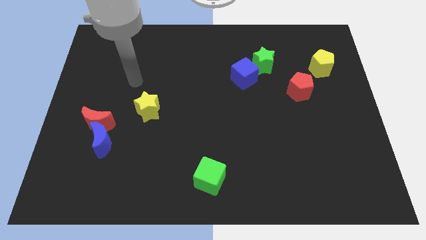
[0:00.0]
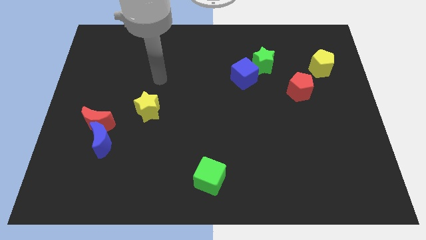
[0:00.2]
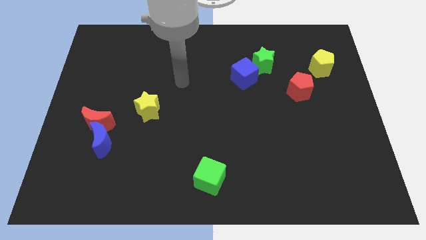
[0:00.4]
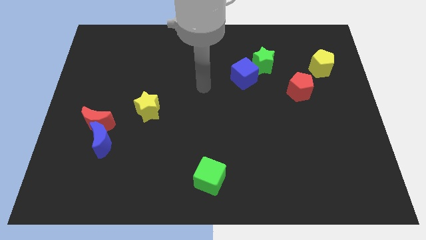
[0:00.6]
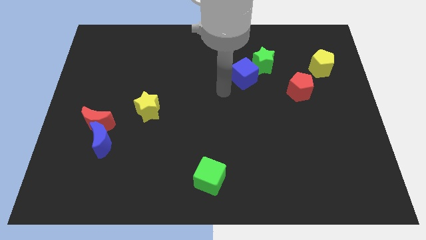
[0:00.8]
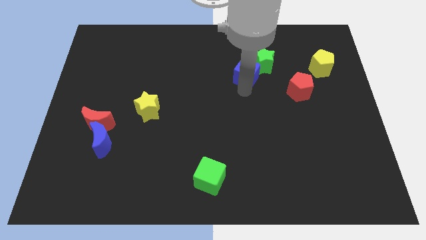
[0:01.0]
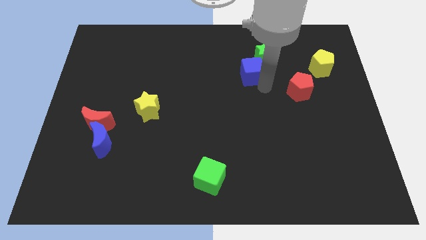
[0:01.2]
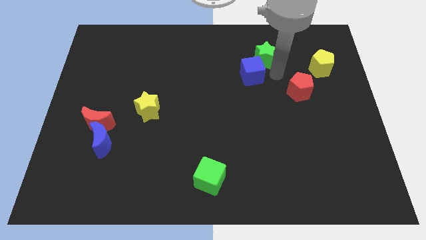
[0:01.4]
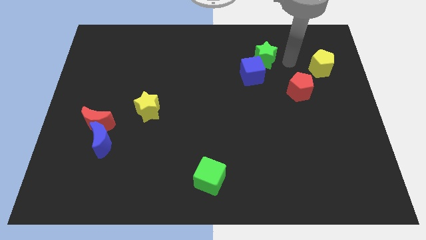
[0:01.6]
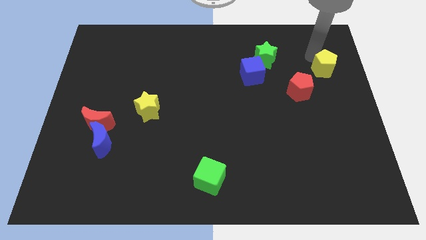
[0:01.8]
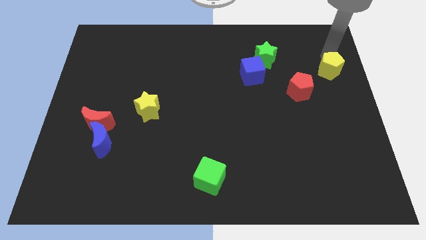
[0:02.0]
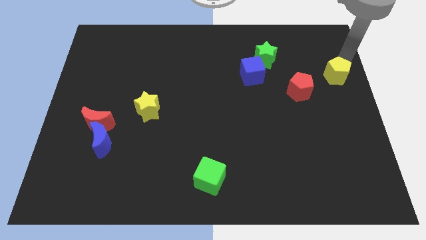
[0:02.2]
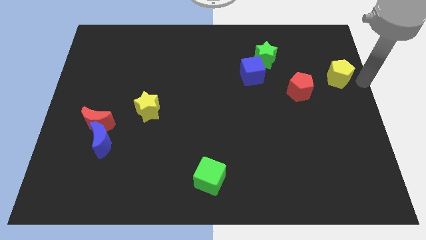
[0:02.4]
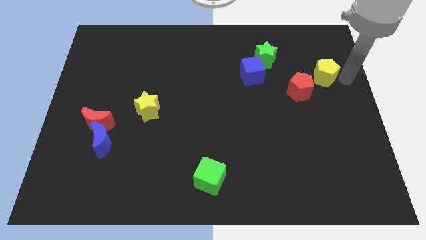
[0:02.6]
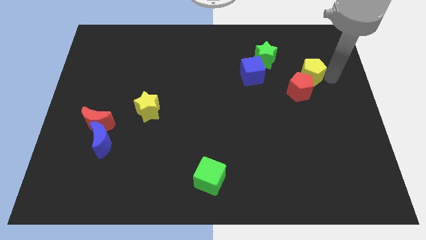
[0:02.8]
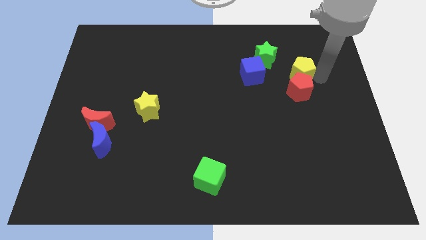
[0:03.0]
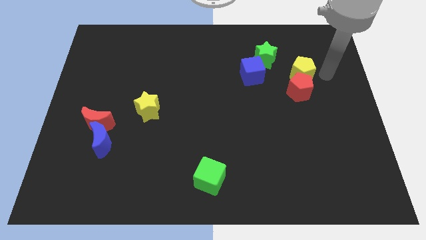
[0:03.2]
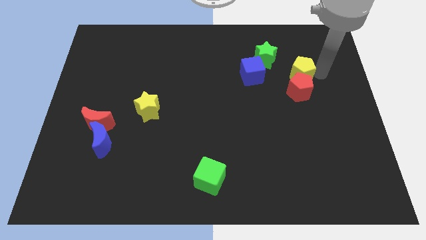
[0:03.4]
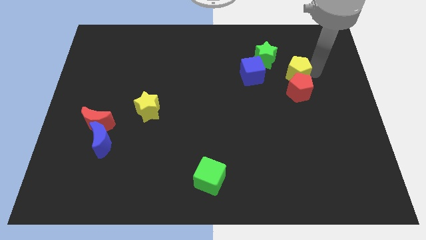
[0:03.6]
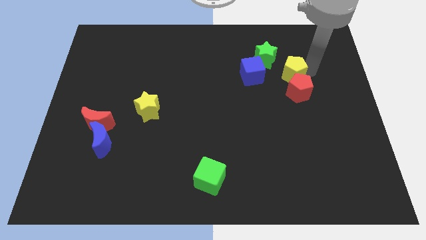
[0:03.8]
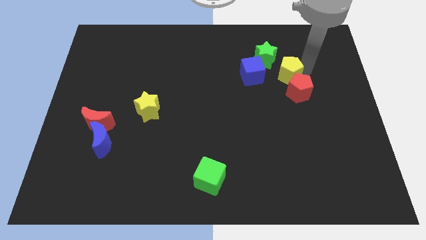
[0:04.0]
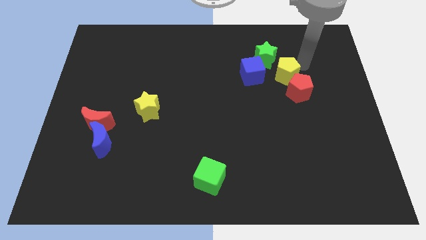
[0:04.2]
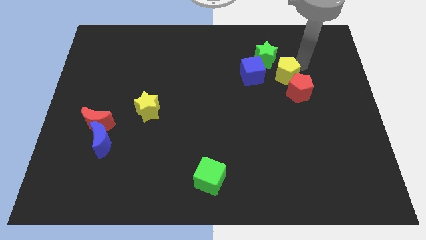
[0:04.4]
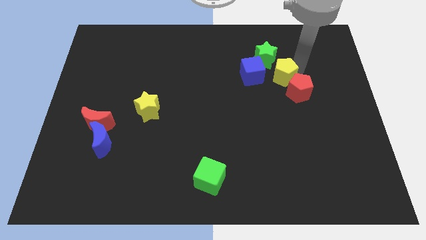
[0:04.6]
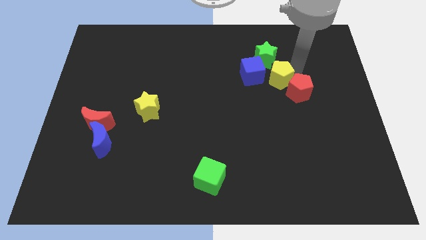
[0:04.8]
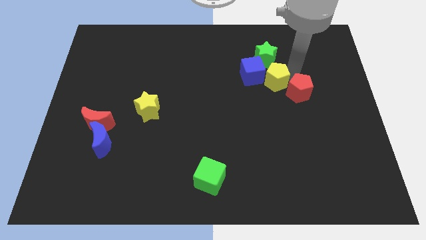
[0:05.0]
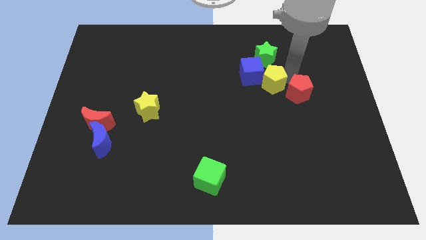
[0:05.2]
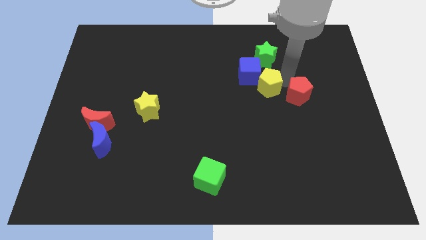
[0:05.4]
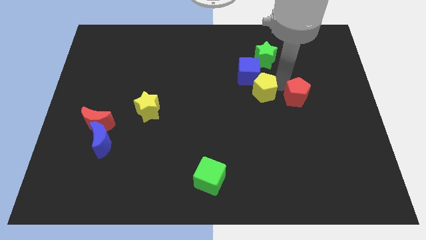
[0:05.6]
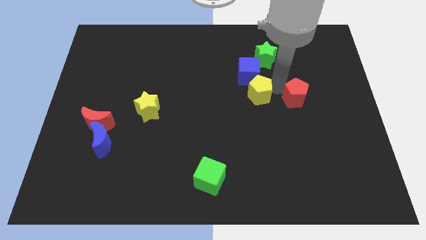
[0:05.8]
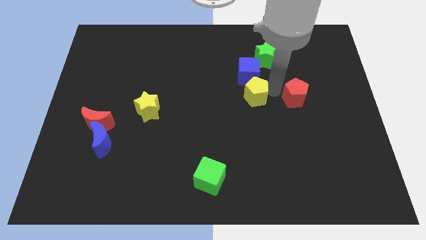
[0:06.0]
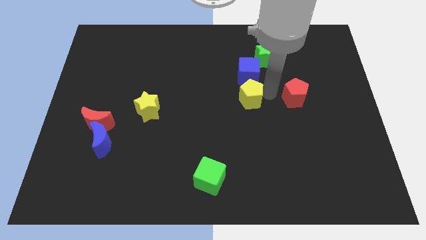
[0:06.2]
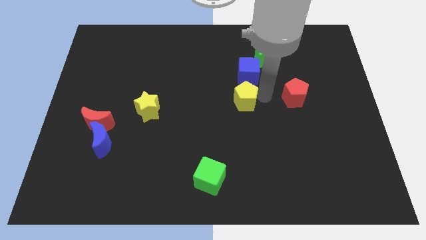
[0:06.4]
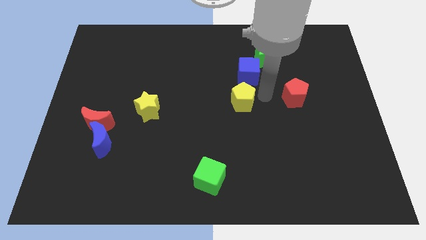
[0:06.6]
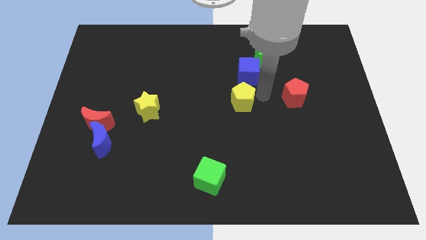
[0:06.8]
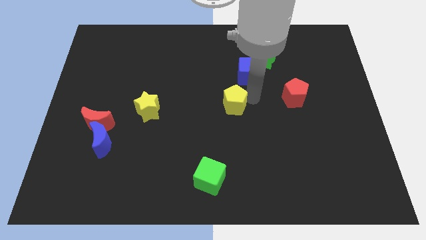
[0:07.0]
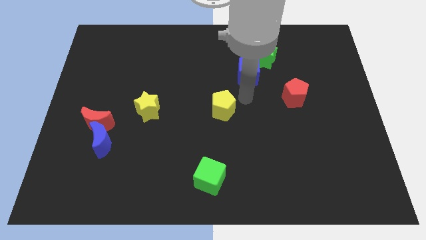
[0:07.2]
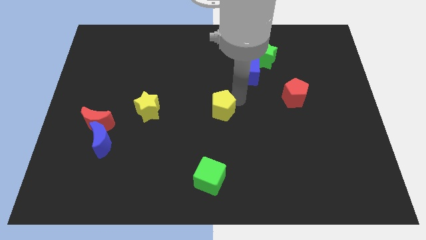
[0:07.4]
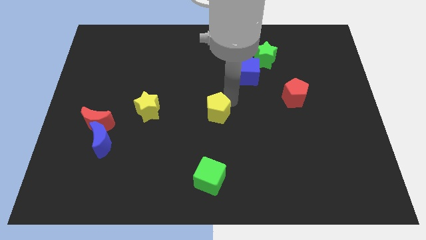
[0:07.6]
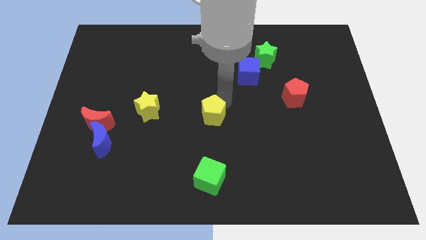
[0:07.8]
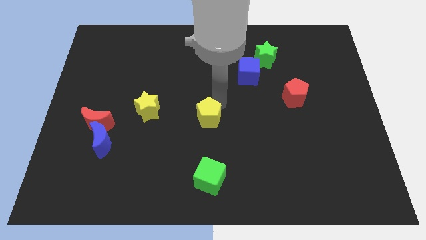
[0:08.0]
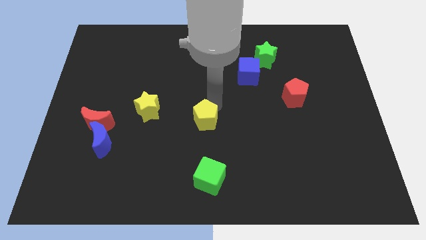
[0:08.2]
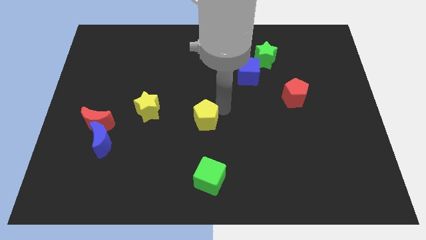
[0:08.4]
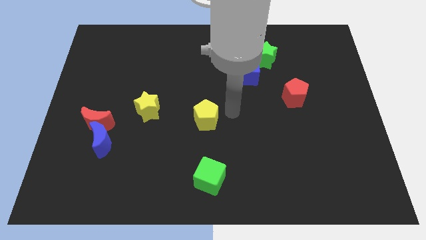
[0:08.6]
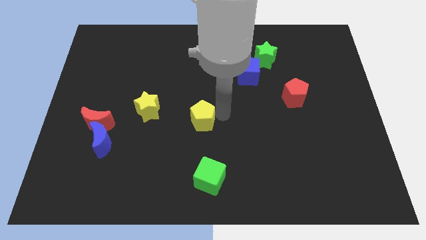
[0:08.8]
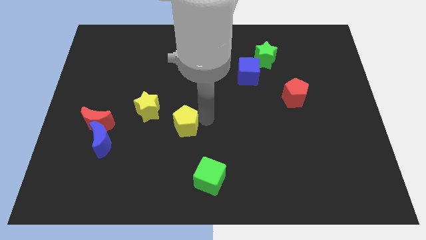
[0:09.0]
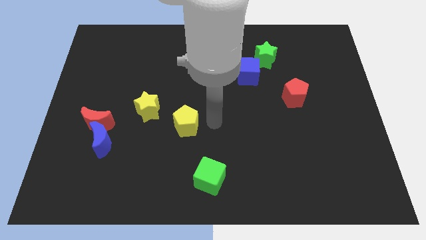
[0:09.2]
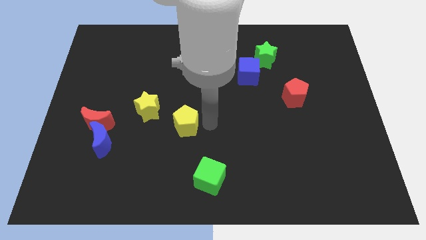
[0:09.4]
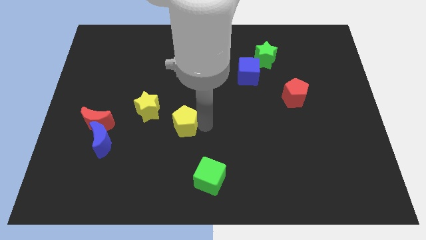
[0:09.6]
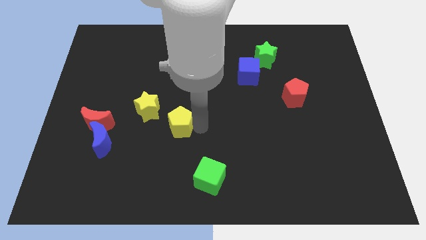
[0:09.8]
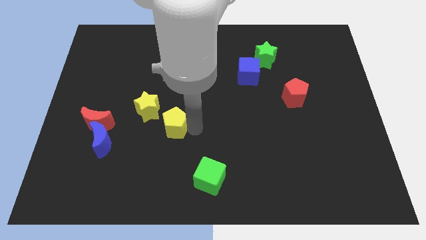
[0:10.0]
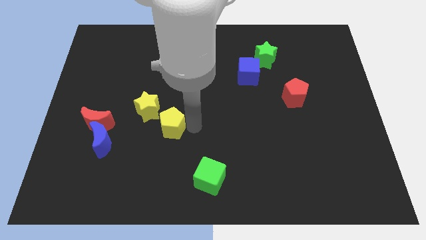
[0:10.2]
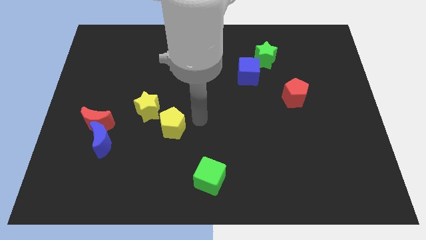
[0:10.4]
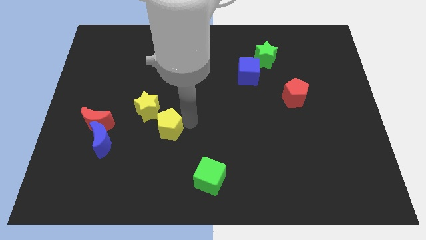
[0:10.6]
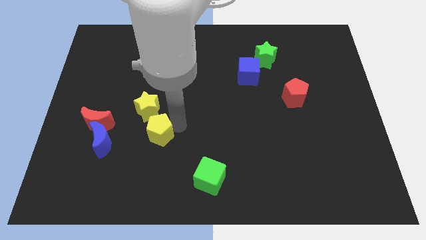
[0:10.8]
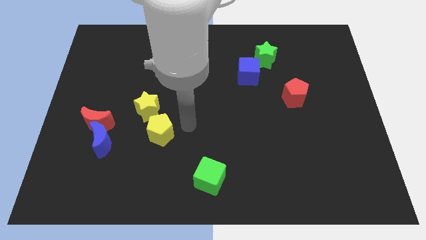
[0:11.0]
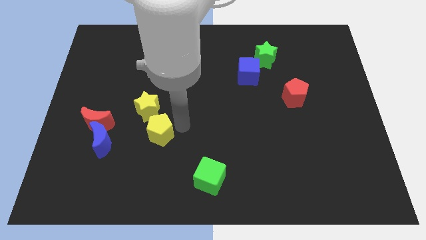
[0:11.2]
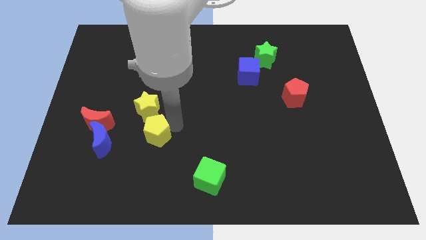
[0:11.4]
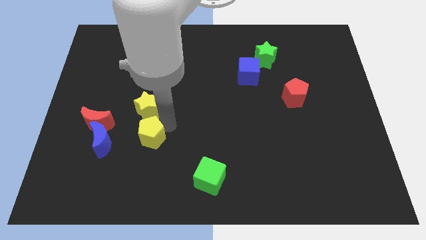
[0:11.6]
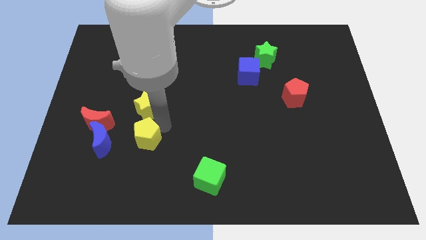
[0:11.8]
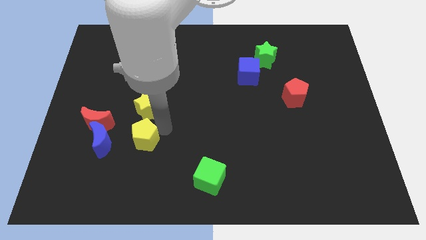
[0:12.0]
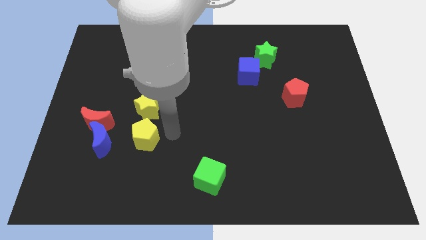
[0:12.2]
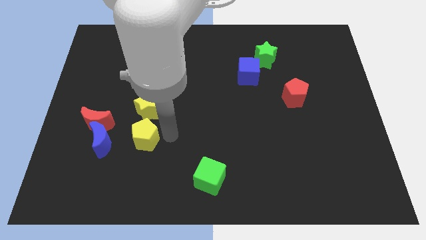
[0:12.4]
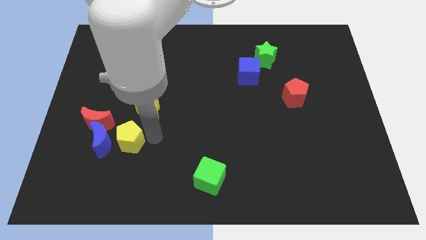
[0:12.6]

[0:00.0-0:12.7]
put the yellow pentagon close to the blue moon

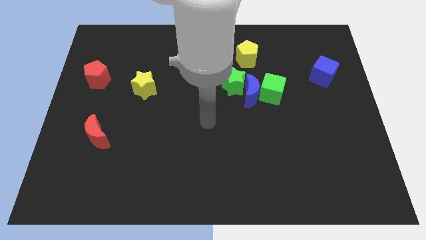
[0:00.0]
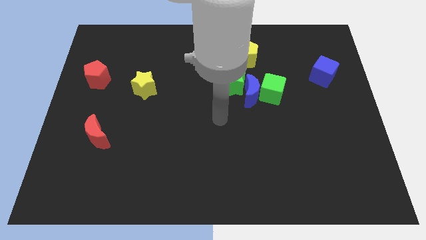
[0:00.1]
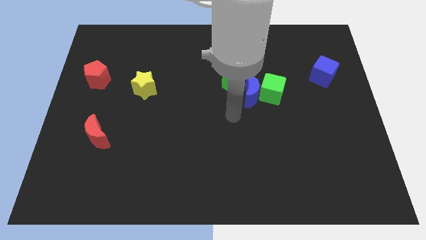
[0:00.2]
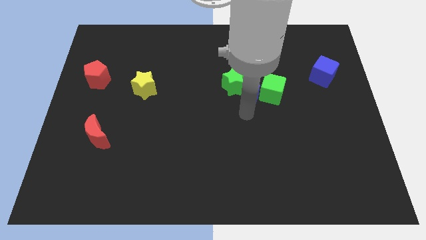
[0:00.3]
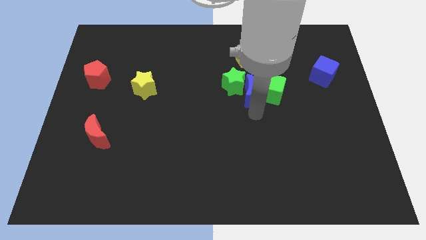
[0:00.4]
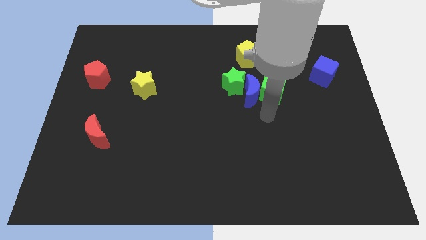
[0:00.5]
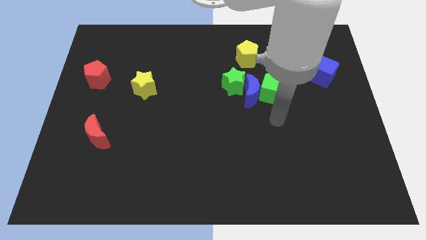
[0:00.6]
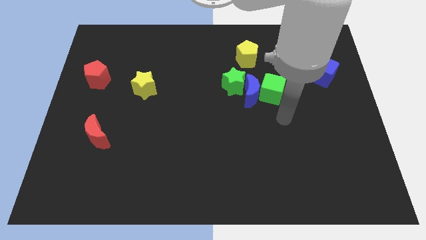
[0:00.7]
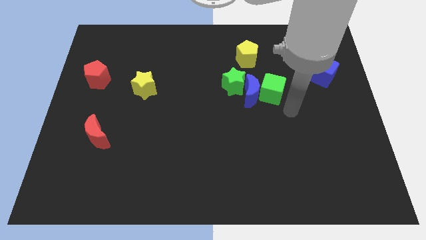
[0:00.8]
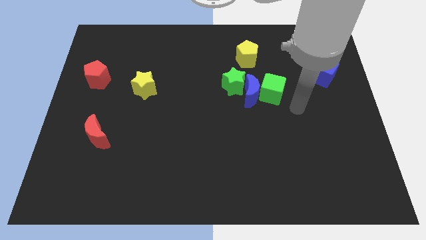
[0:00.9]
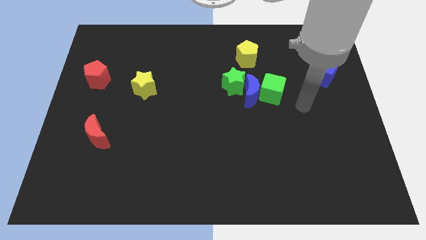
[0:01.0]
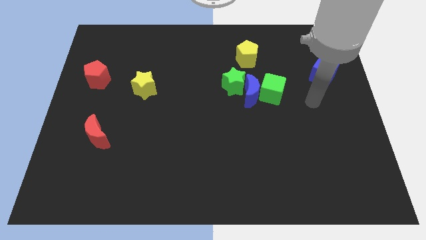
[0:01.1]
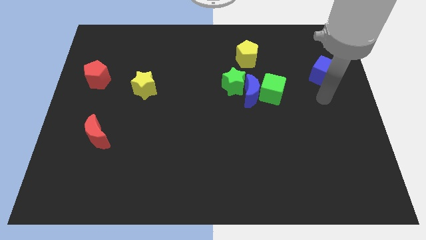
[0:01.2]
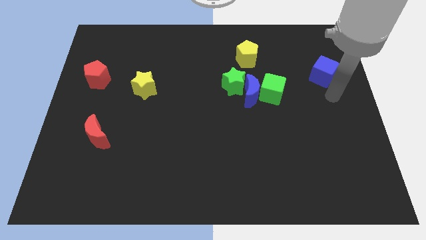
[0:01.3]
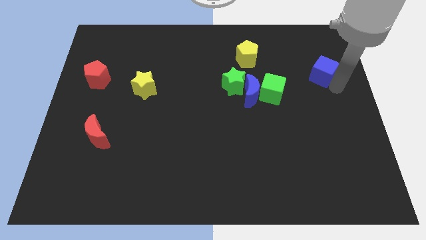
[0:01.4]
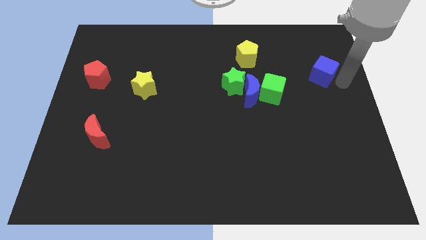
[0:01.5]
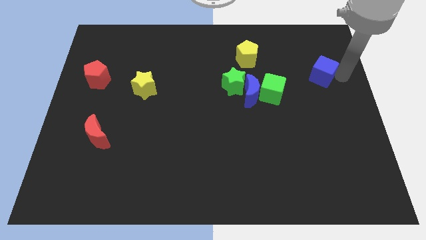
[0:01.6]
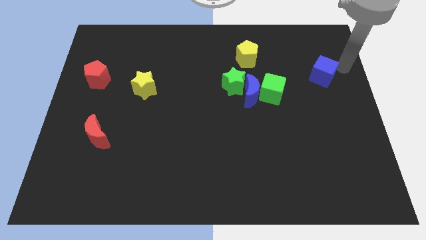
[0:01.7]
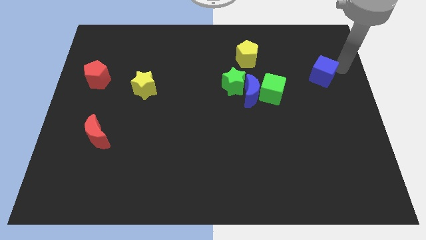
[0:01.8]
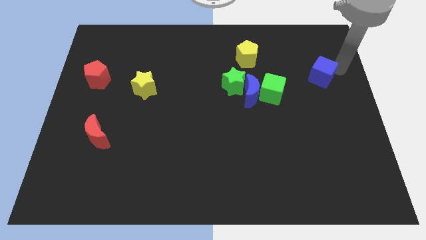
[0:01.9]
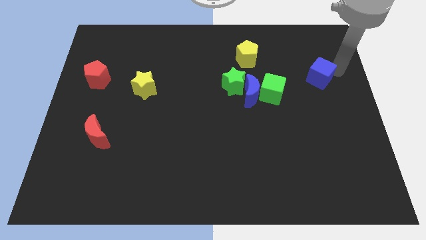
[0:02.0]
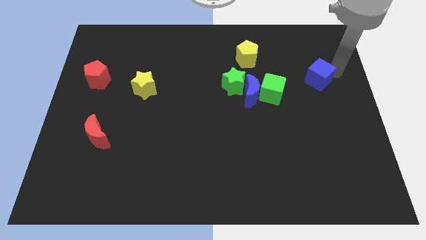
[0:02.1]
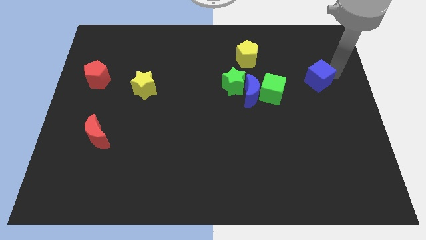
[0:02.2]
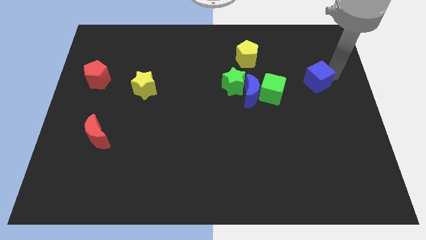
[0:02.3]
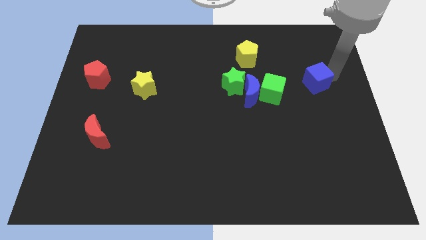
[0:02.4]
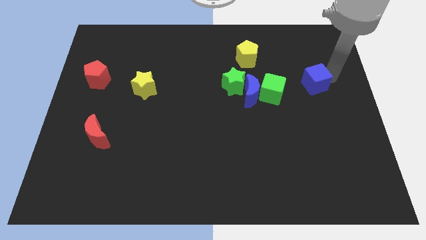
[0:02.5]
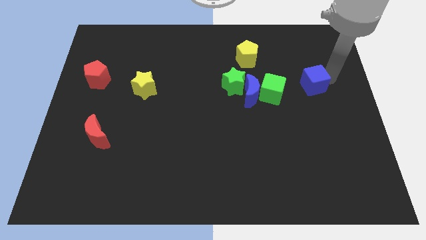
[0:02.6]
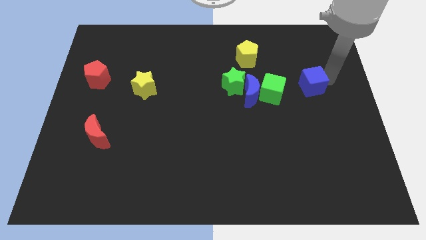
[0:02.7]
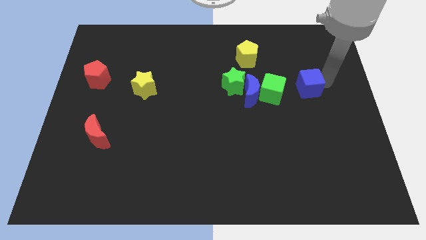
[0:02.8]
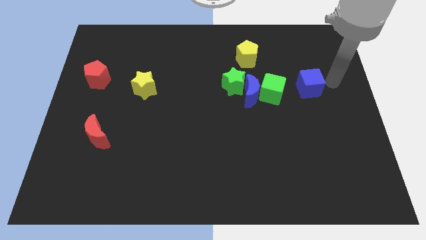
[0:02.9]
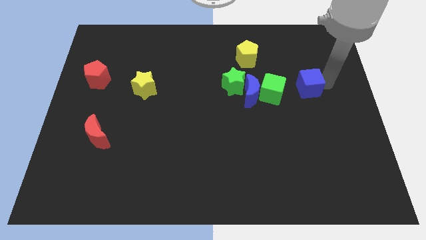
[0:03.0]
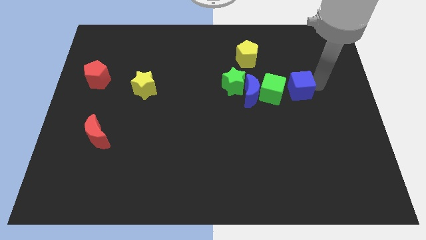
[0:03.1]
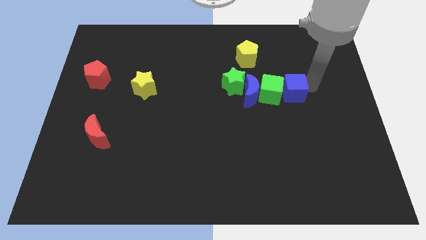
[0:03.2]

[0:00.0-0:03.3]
move the blue cube to the green cube
